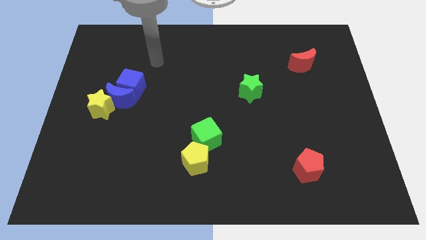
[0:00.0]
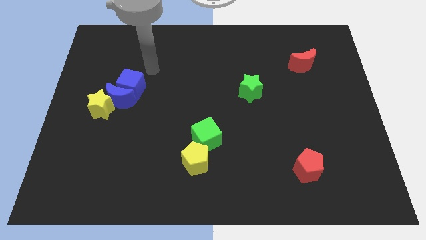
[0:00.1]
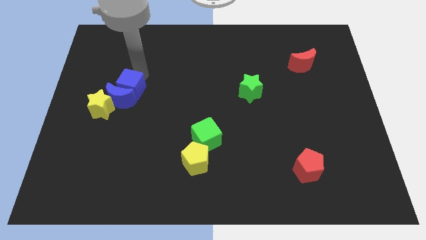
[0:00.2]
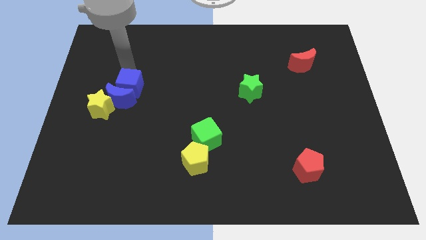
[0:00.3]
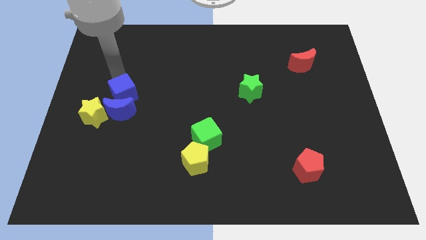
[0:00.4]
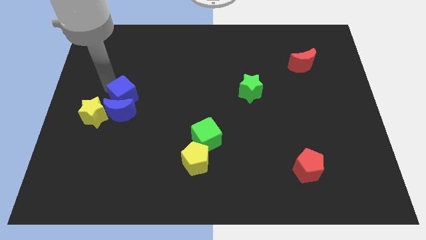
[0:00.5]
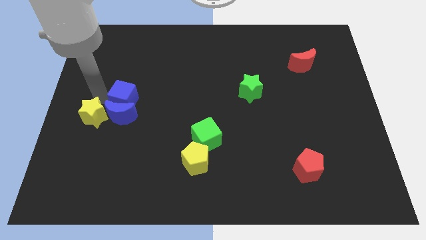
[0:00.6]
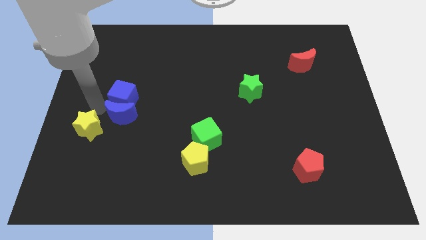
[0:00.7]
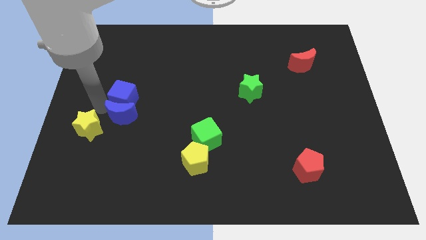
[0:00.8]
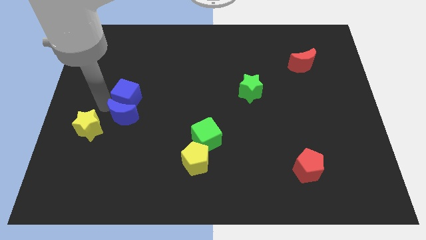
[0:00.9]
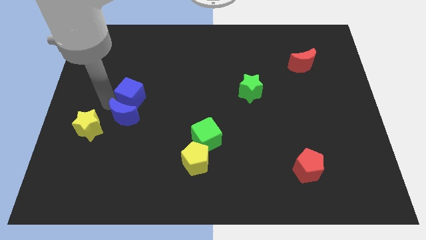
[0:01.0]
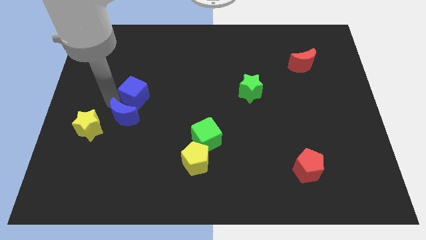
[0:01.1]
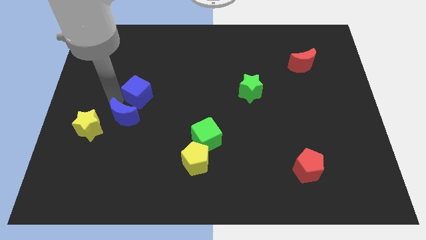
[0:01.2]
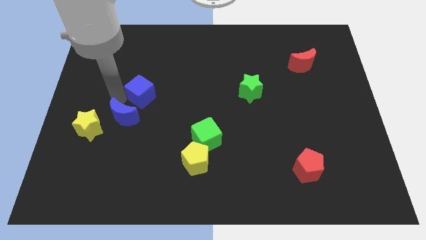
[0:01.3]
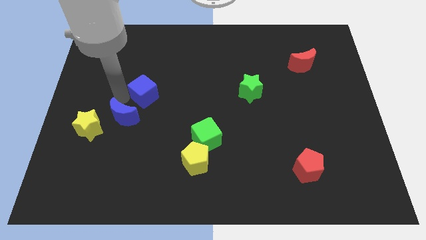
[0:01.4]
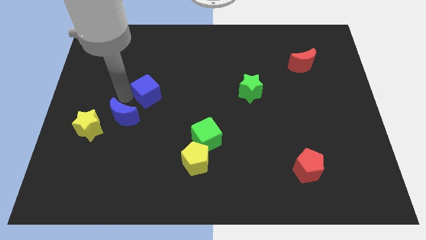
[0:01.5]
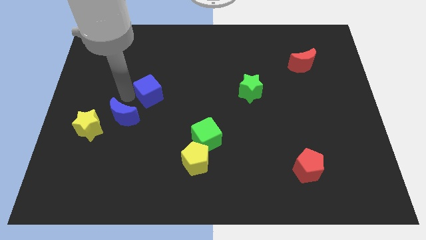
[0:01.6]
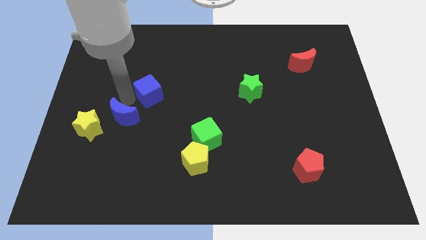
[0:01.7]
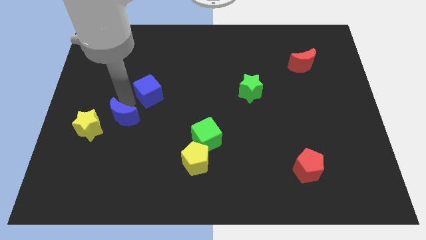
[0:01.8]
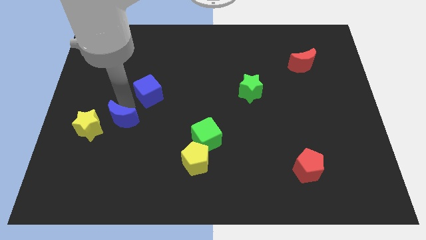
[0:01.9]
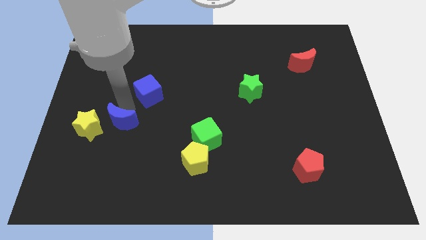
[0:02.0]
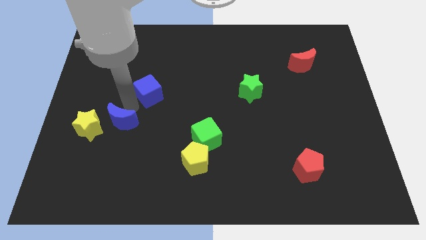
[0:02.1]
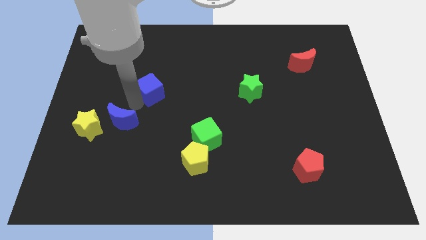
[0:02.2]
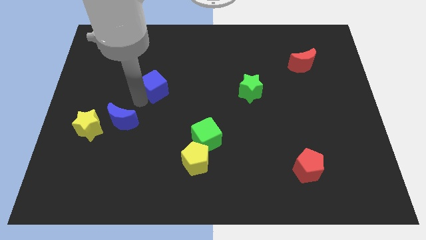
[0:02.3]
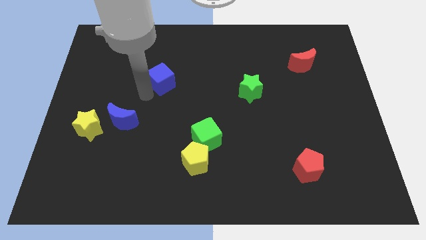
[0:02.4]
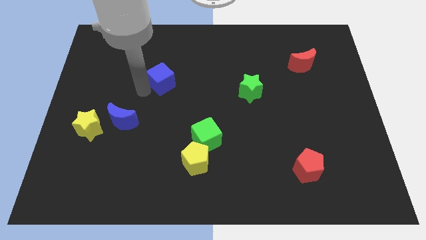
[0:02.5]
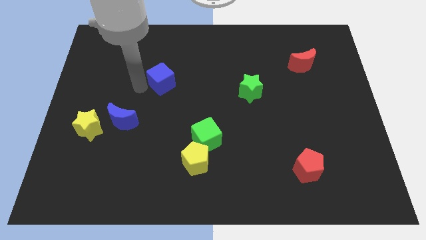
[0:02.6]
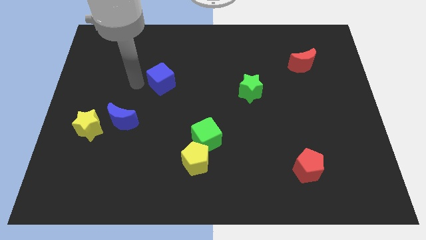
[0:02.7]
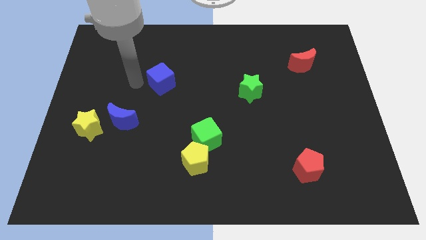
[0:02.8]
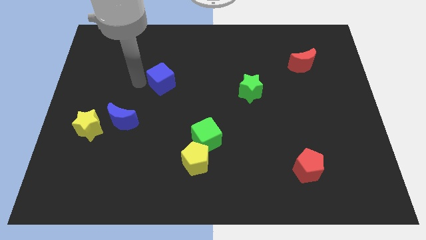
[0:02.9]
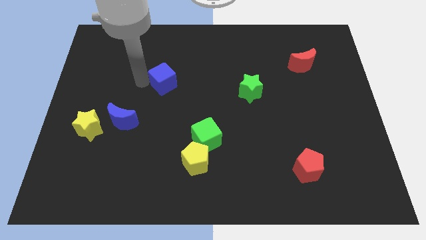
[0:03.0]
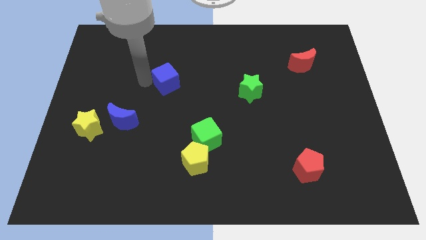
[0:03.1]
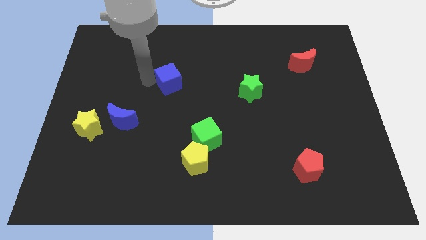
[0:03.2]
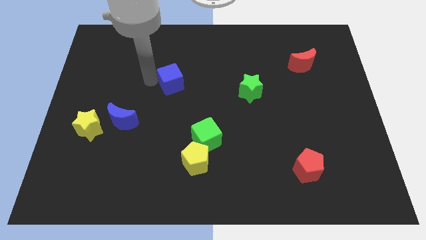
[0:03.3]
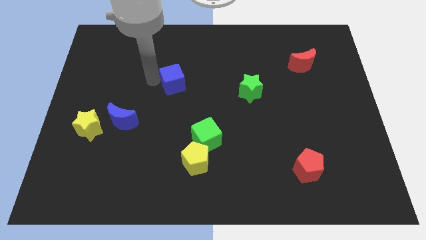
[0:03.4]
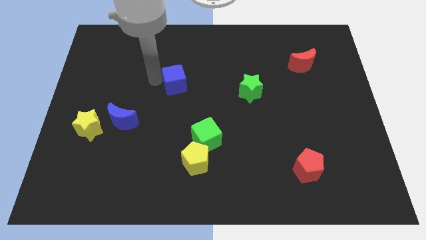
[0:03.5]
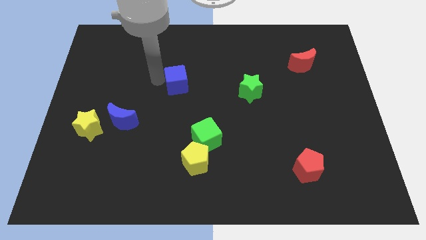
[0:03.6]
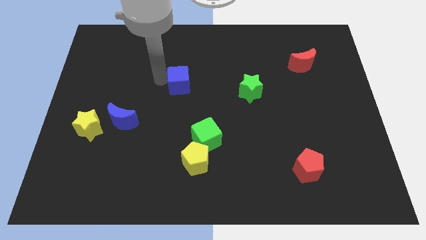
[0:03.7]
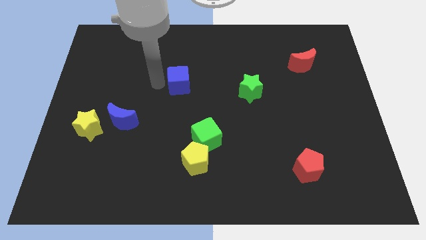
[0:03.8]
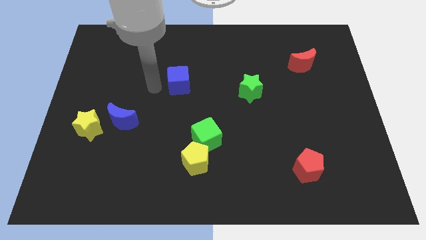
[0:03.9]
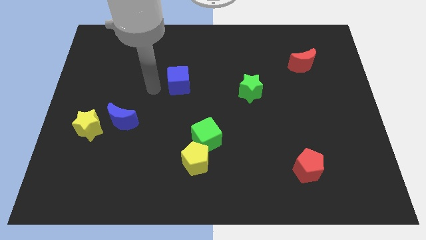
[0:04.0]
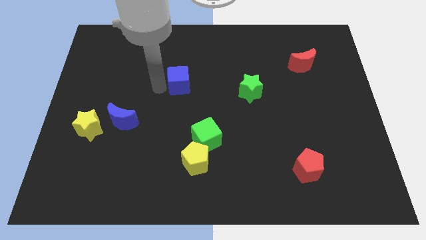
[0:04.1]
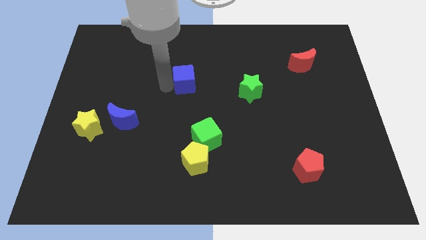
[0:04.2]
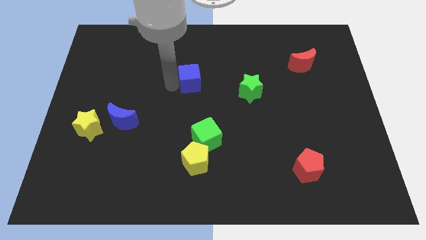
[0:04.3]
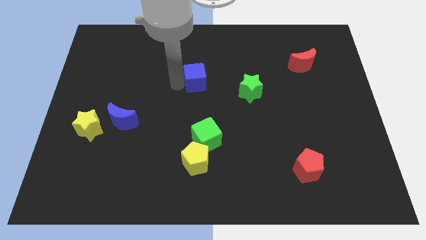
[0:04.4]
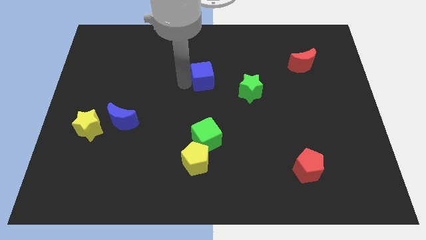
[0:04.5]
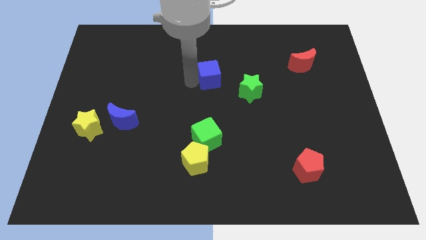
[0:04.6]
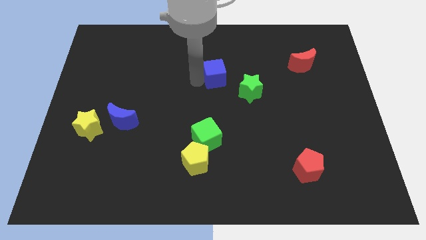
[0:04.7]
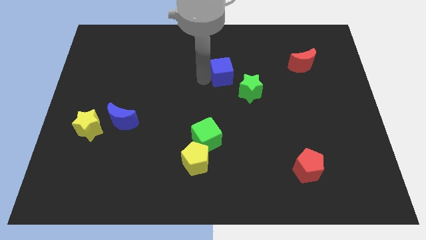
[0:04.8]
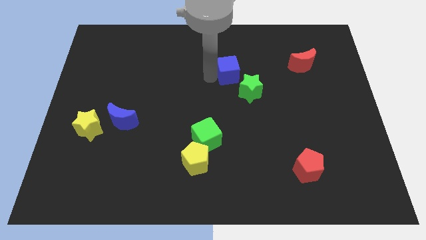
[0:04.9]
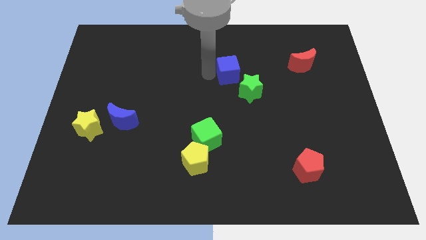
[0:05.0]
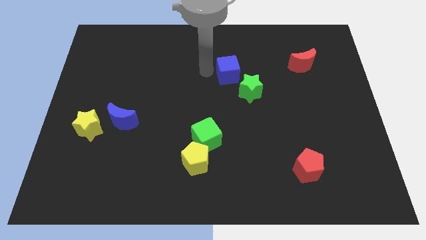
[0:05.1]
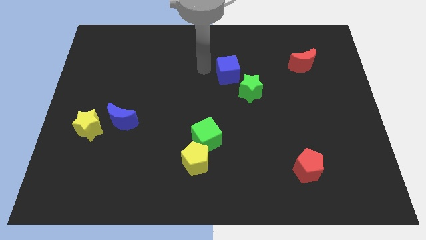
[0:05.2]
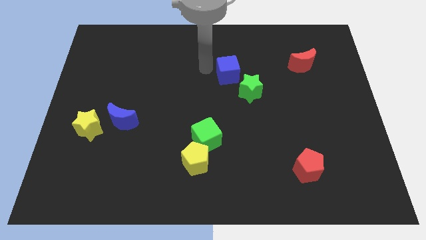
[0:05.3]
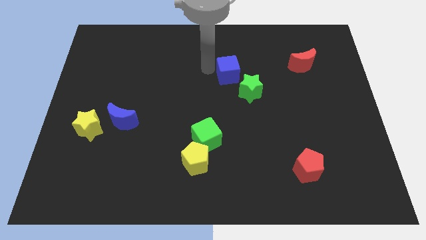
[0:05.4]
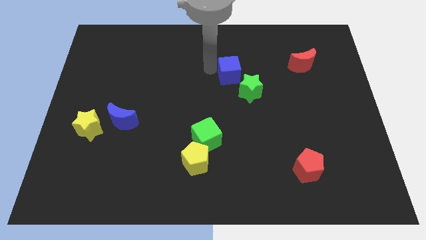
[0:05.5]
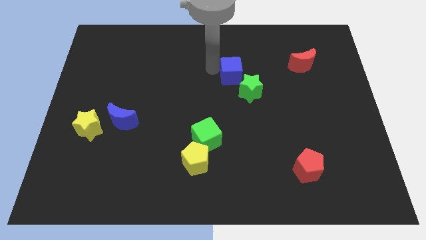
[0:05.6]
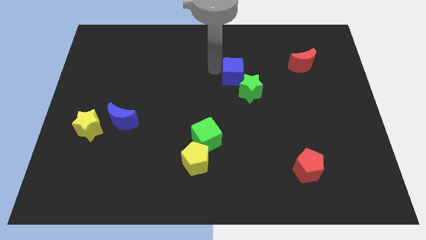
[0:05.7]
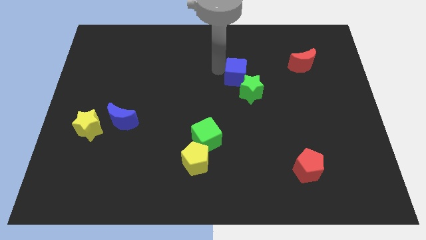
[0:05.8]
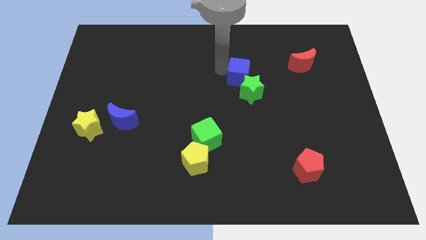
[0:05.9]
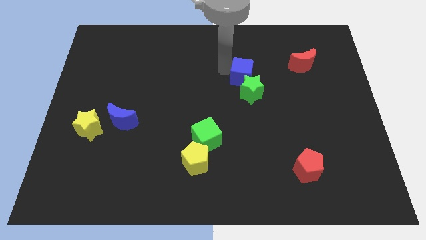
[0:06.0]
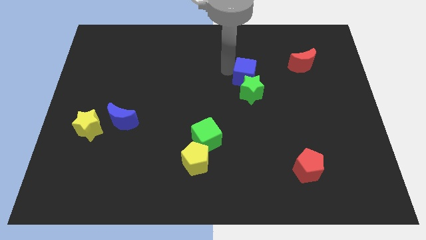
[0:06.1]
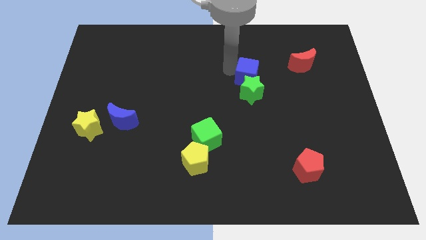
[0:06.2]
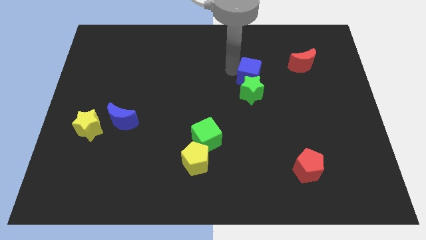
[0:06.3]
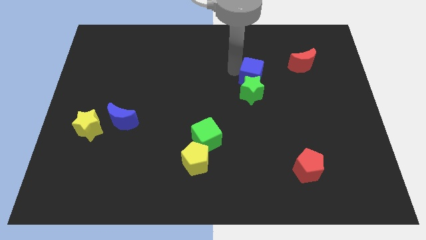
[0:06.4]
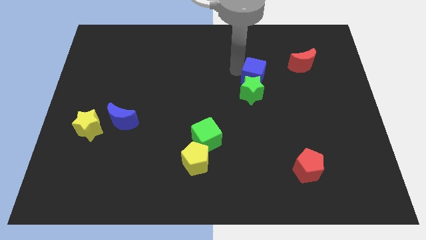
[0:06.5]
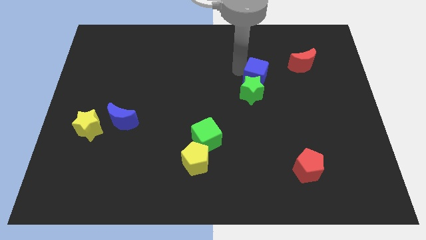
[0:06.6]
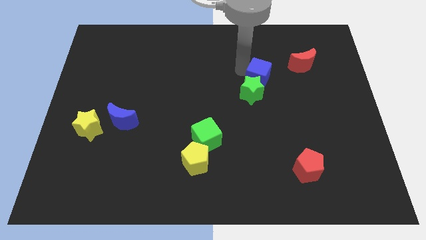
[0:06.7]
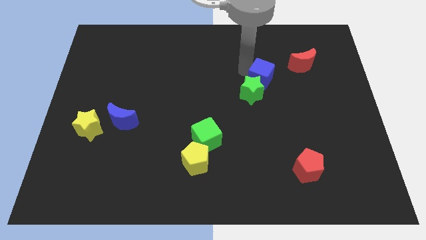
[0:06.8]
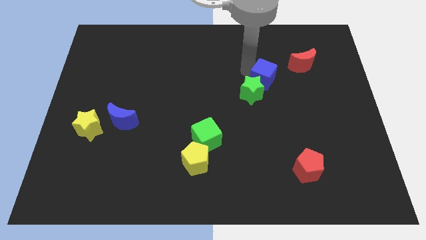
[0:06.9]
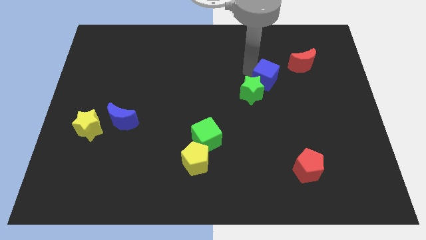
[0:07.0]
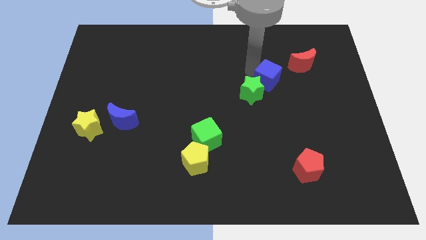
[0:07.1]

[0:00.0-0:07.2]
slide the blue cube right of the green star

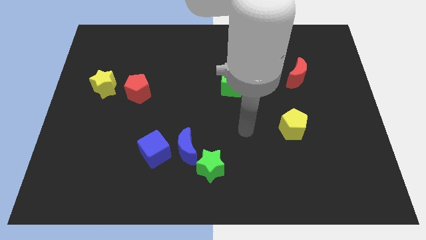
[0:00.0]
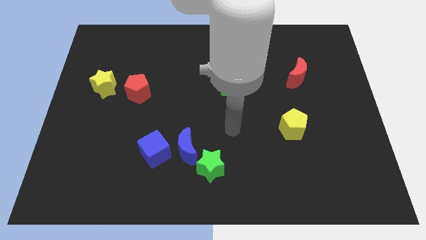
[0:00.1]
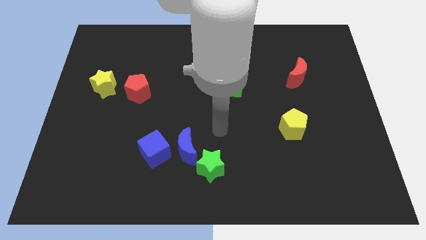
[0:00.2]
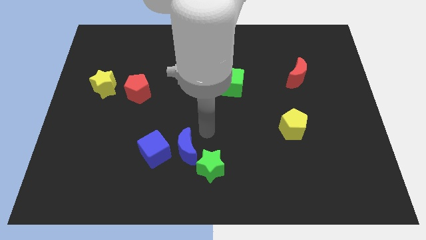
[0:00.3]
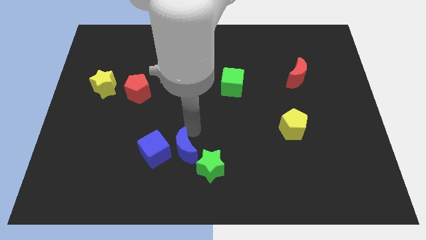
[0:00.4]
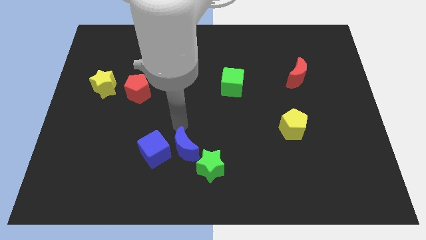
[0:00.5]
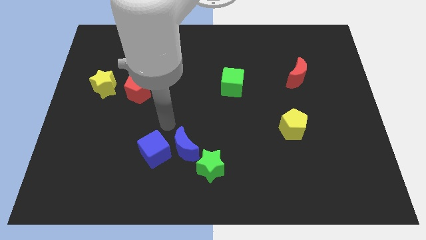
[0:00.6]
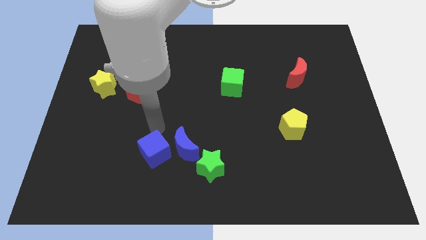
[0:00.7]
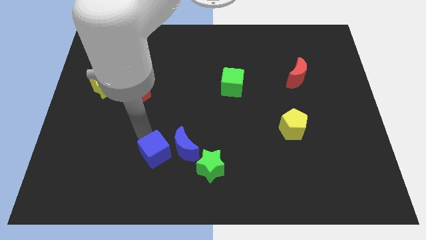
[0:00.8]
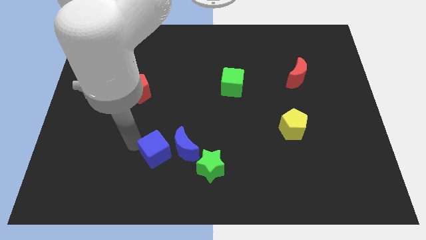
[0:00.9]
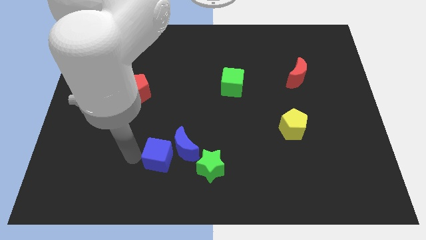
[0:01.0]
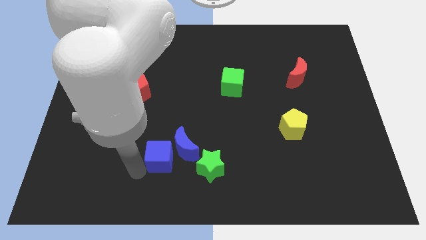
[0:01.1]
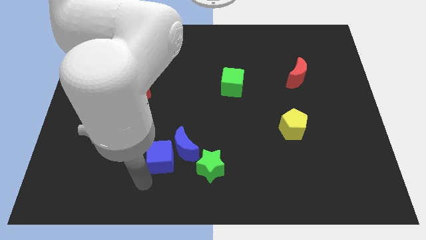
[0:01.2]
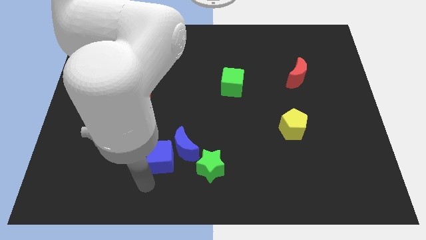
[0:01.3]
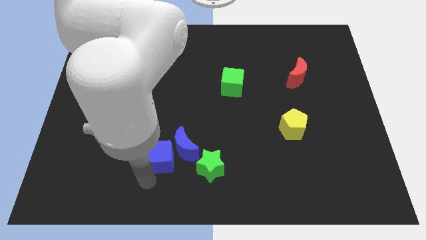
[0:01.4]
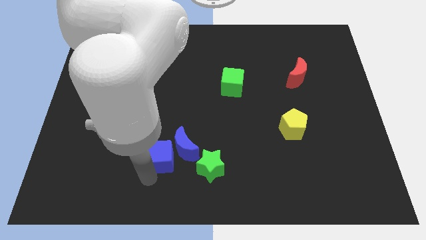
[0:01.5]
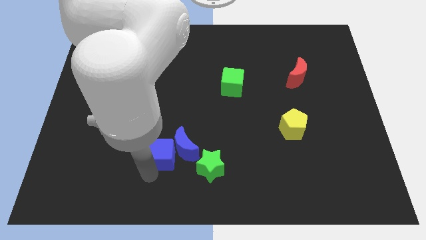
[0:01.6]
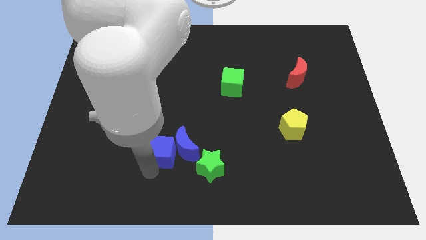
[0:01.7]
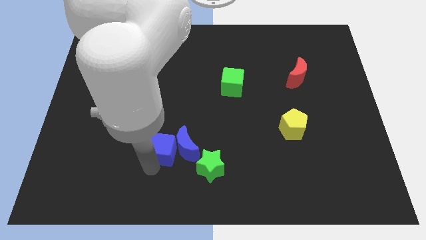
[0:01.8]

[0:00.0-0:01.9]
put the blue cube to the top left side of the green star
